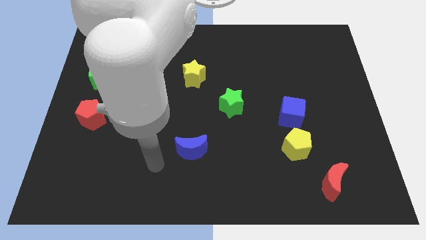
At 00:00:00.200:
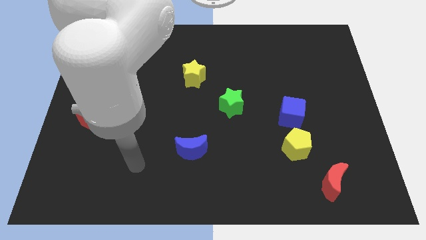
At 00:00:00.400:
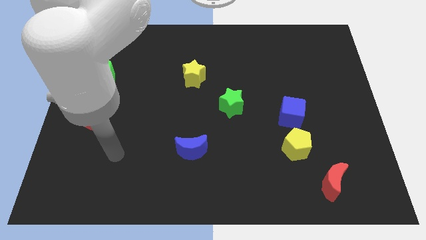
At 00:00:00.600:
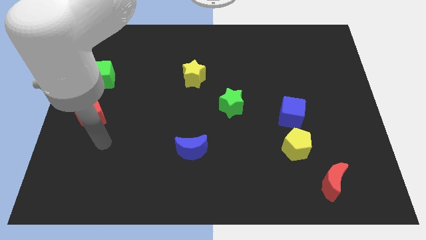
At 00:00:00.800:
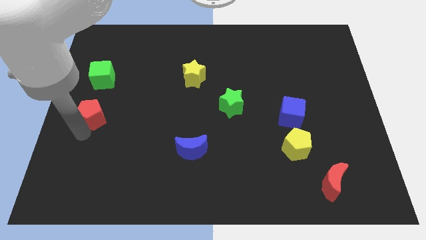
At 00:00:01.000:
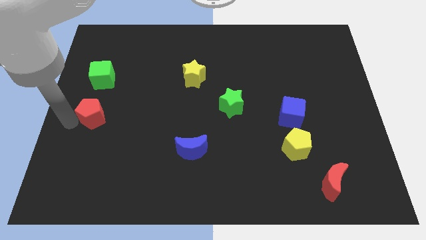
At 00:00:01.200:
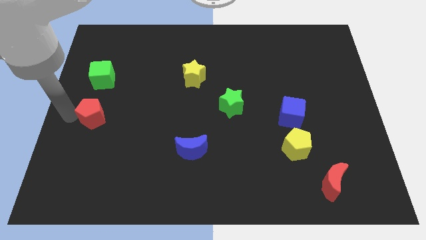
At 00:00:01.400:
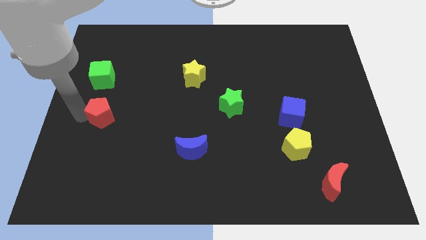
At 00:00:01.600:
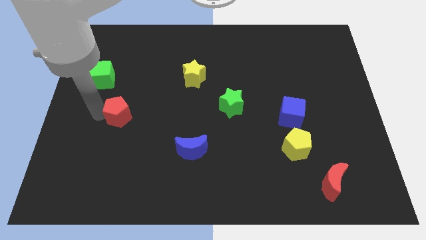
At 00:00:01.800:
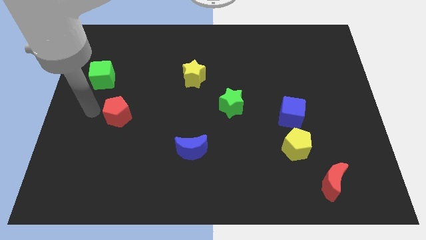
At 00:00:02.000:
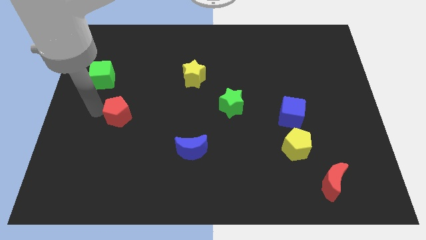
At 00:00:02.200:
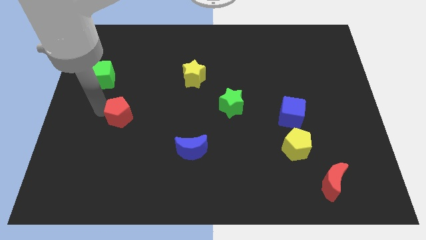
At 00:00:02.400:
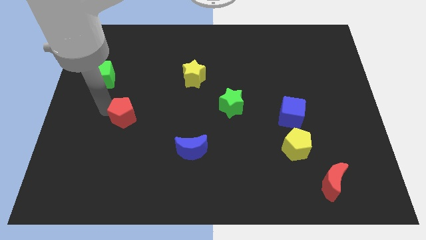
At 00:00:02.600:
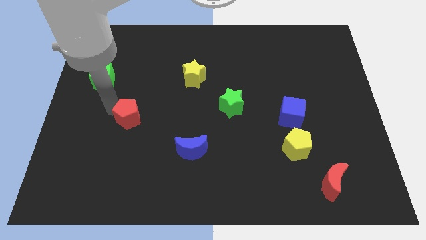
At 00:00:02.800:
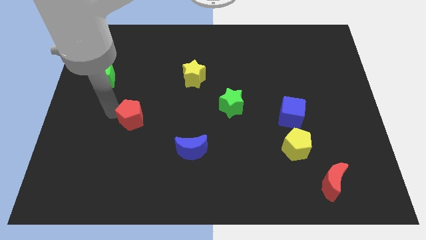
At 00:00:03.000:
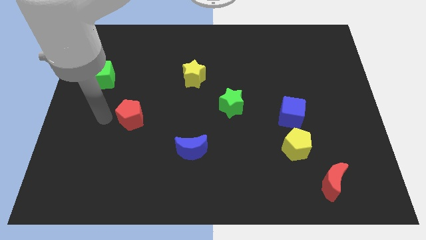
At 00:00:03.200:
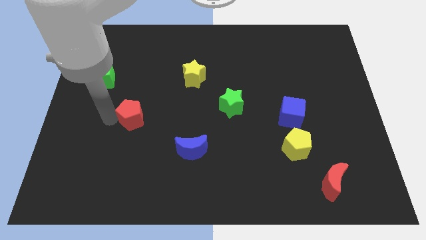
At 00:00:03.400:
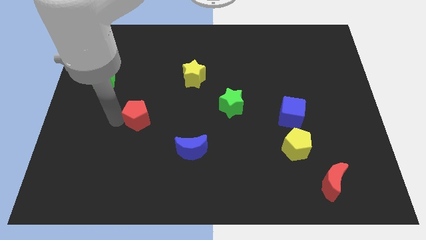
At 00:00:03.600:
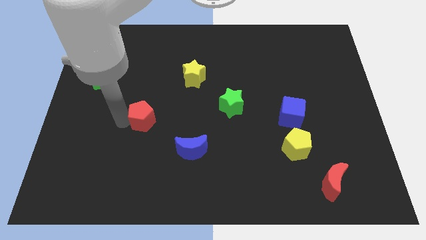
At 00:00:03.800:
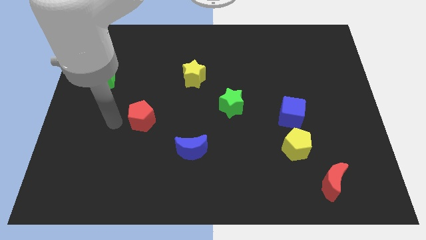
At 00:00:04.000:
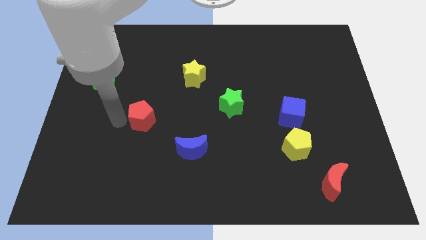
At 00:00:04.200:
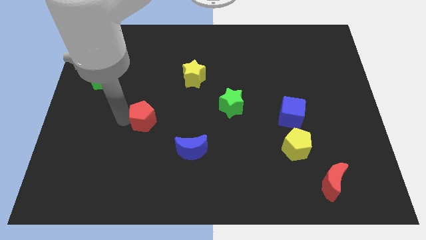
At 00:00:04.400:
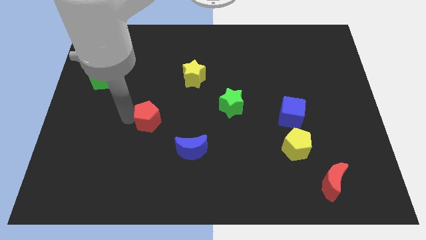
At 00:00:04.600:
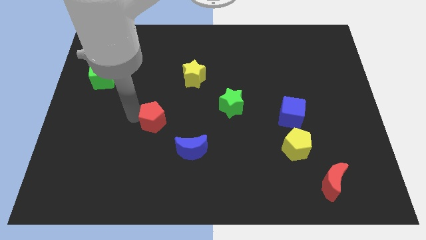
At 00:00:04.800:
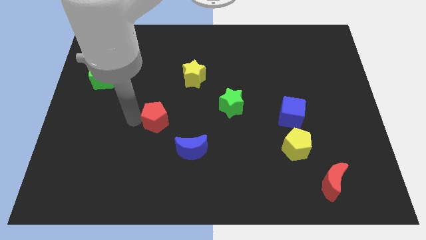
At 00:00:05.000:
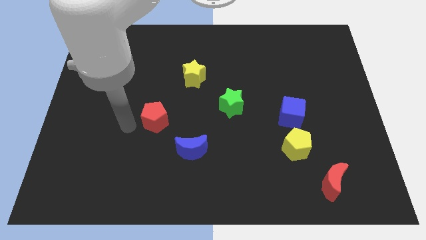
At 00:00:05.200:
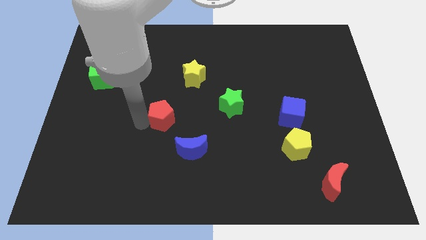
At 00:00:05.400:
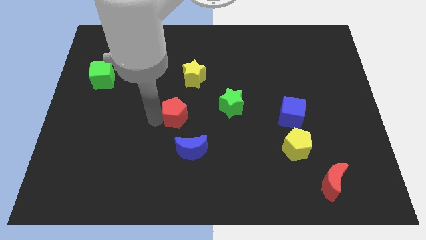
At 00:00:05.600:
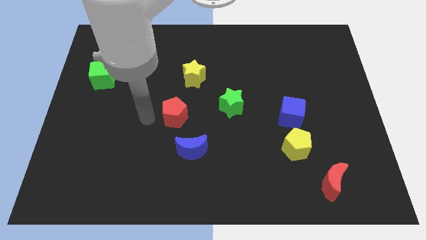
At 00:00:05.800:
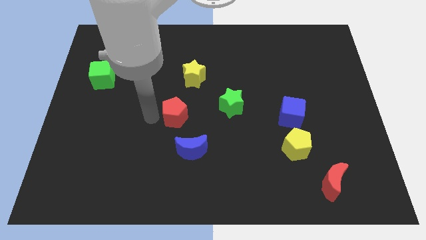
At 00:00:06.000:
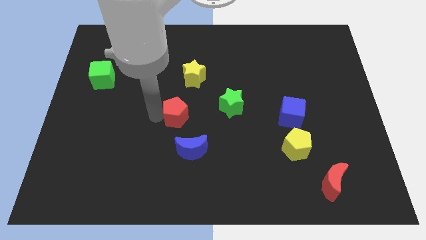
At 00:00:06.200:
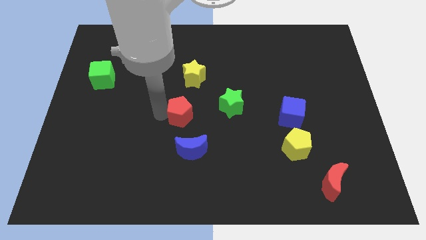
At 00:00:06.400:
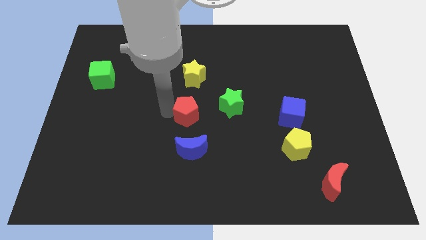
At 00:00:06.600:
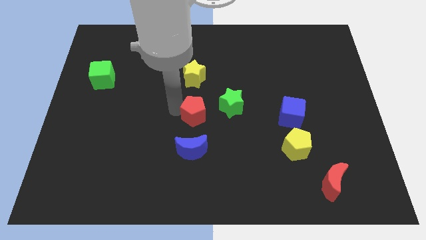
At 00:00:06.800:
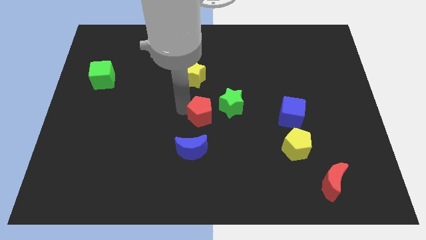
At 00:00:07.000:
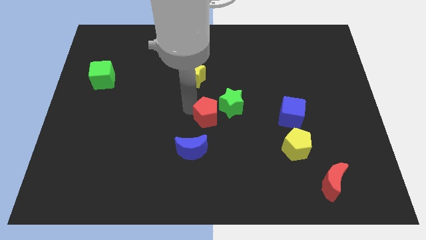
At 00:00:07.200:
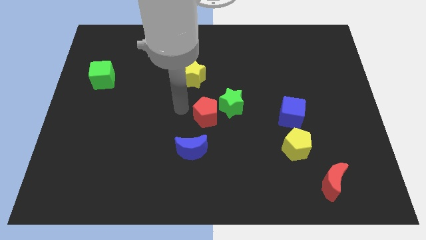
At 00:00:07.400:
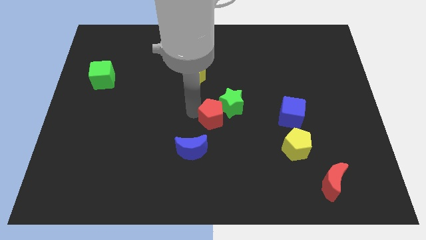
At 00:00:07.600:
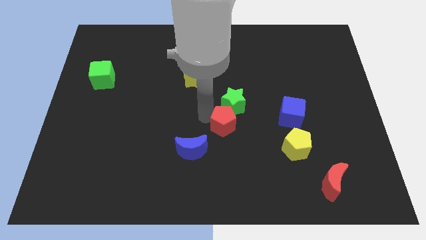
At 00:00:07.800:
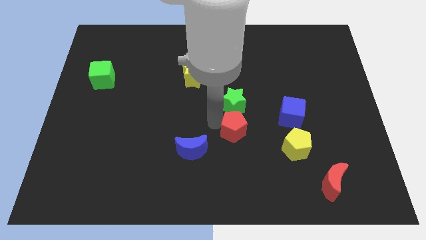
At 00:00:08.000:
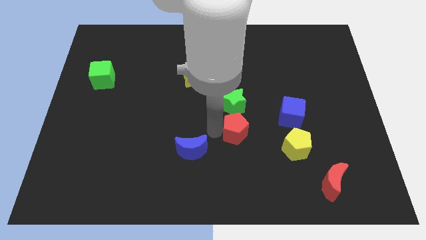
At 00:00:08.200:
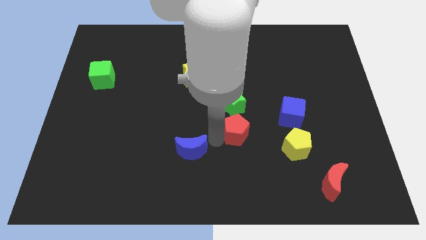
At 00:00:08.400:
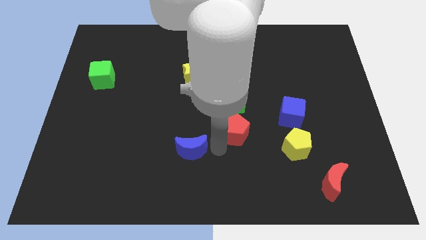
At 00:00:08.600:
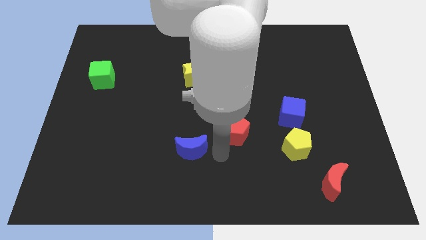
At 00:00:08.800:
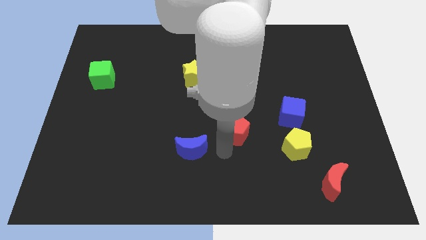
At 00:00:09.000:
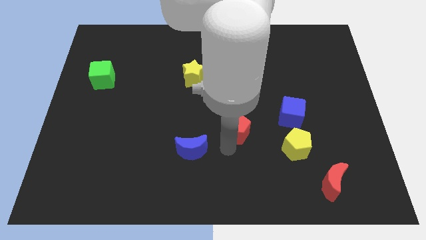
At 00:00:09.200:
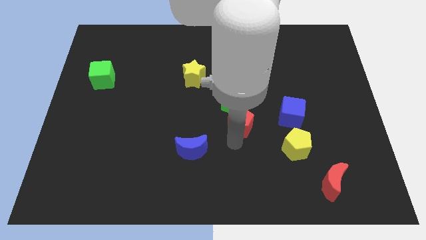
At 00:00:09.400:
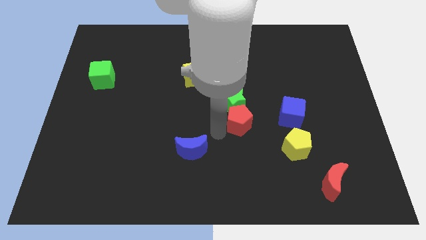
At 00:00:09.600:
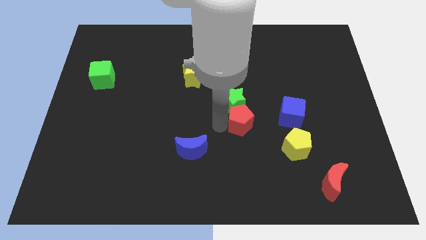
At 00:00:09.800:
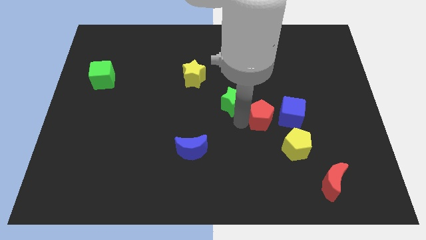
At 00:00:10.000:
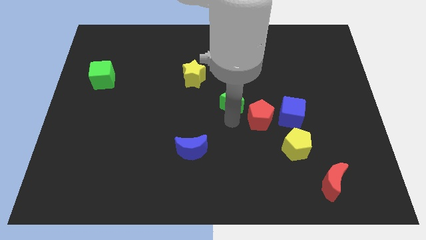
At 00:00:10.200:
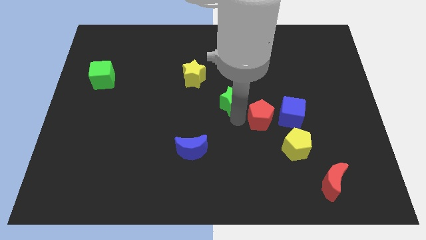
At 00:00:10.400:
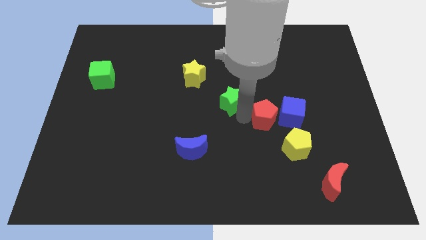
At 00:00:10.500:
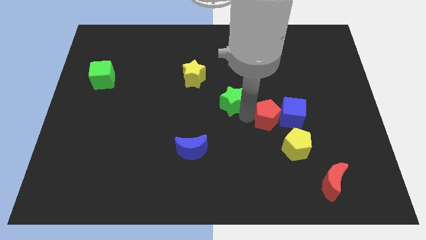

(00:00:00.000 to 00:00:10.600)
move the red pentagon towards the blue cube

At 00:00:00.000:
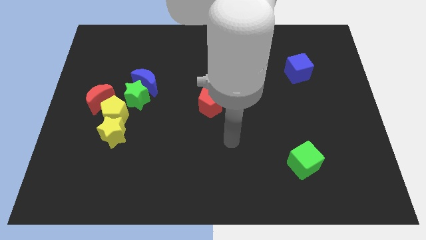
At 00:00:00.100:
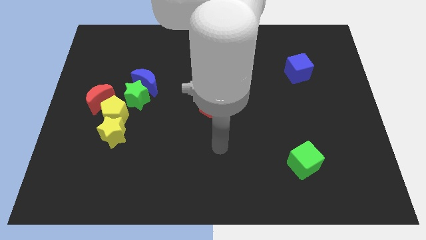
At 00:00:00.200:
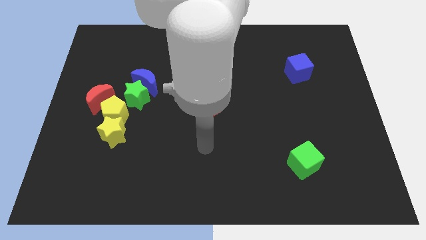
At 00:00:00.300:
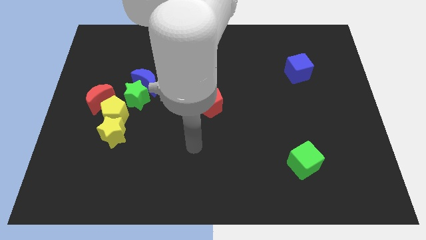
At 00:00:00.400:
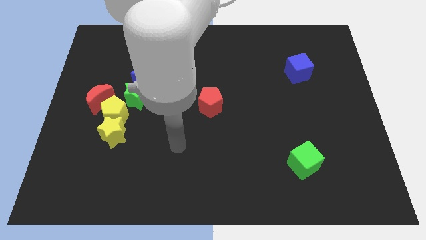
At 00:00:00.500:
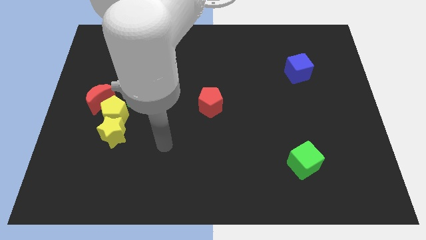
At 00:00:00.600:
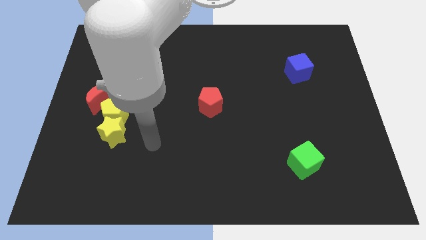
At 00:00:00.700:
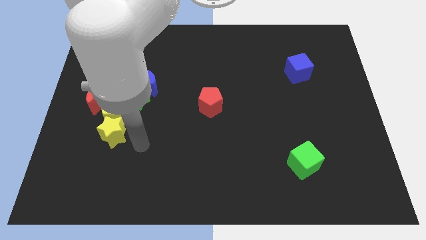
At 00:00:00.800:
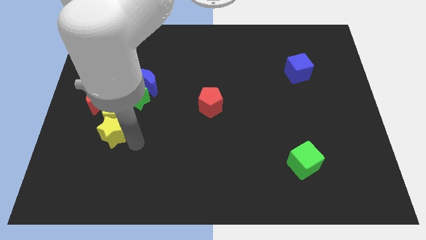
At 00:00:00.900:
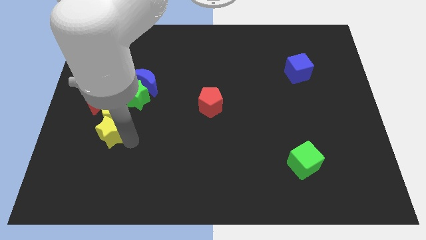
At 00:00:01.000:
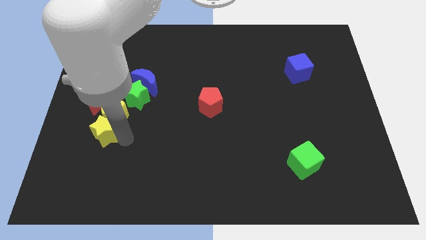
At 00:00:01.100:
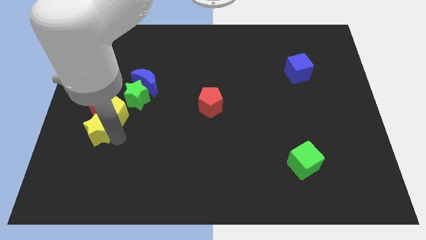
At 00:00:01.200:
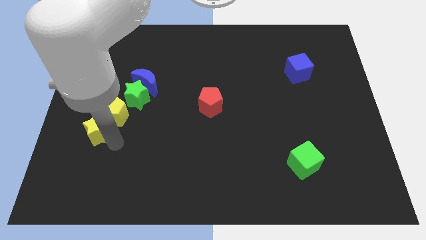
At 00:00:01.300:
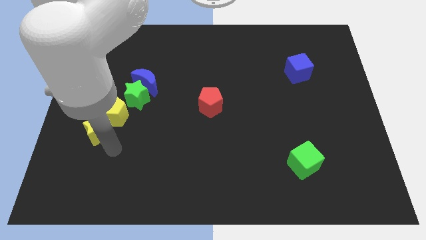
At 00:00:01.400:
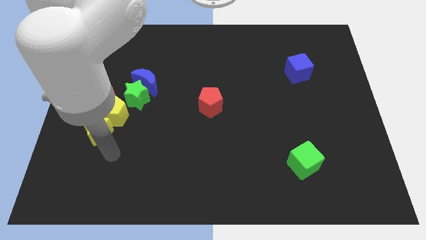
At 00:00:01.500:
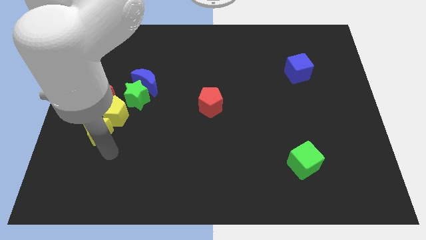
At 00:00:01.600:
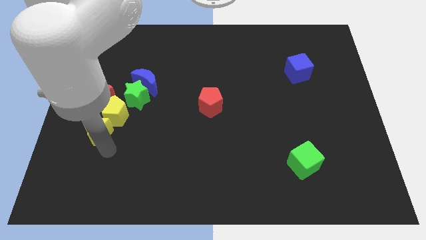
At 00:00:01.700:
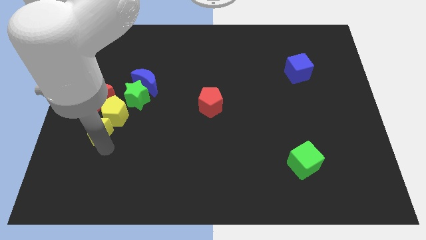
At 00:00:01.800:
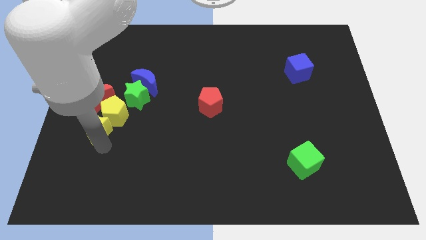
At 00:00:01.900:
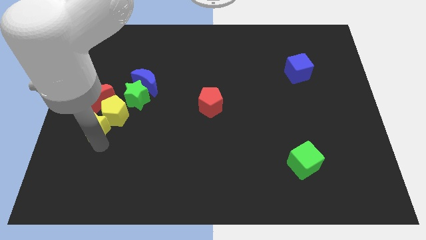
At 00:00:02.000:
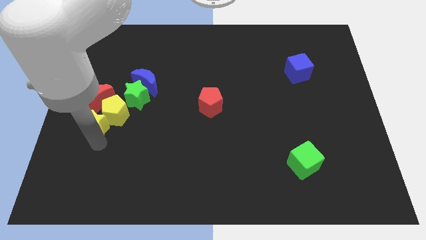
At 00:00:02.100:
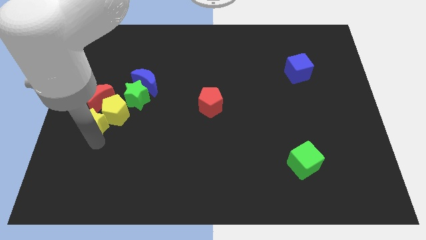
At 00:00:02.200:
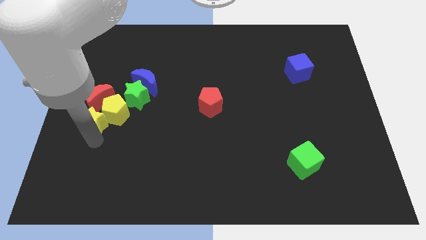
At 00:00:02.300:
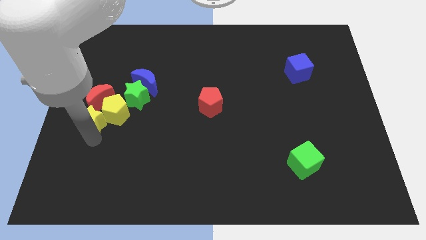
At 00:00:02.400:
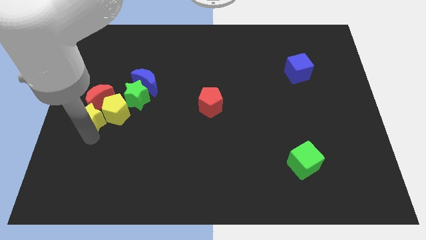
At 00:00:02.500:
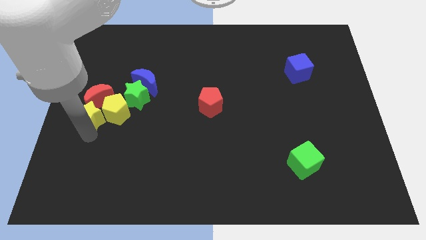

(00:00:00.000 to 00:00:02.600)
slide the yellow star close to the red moon
